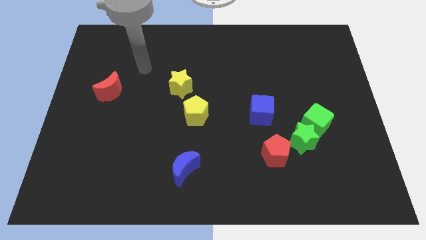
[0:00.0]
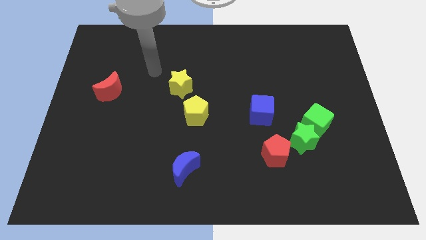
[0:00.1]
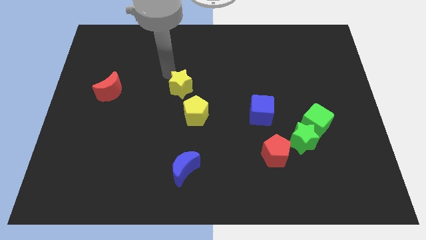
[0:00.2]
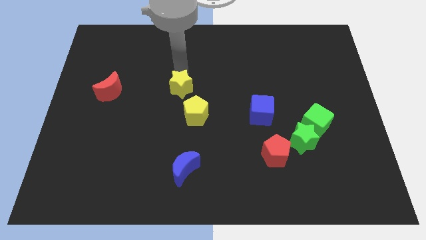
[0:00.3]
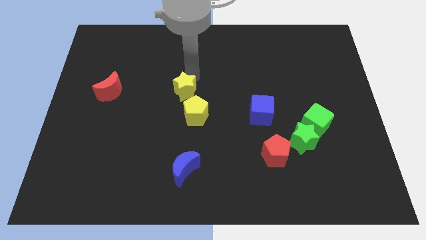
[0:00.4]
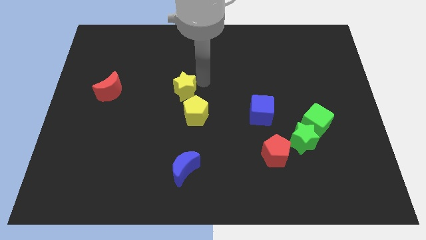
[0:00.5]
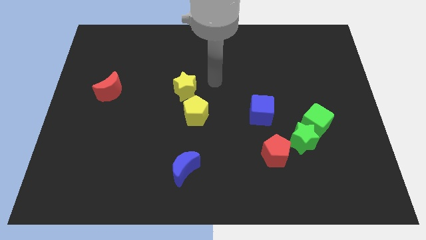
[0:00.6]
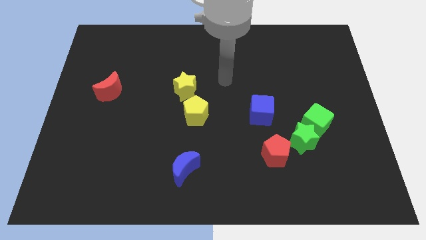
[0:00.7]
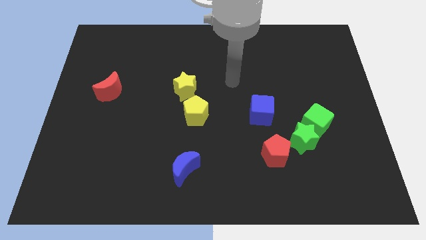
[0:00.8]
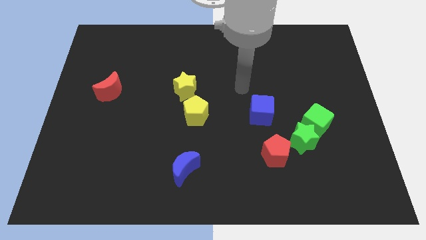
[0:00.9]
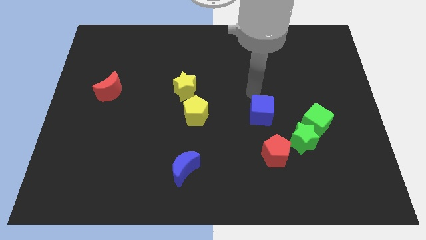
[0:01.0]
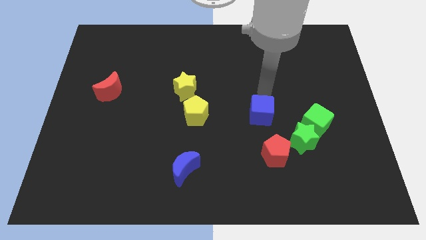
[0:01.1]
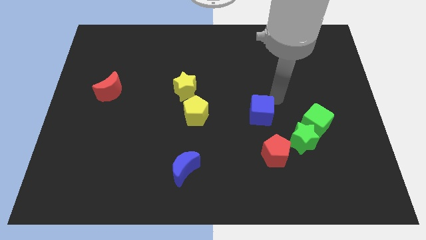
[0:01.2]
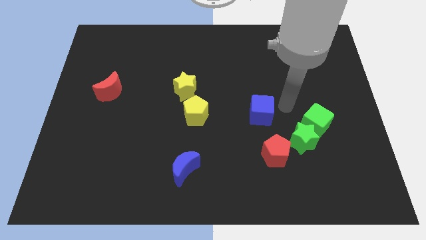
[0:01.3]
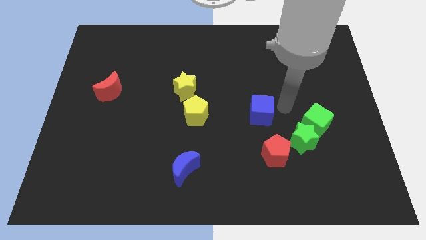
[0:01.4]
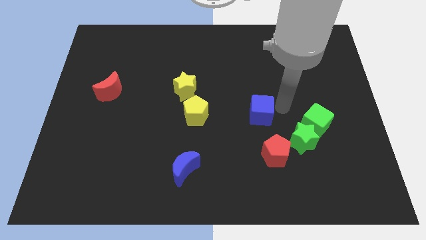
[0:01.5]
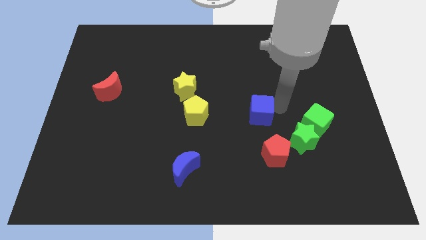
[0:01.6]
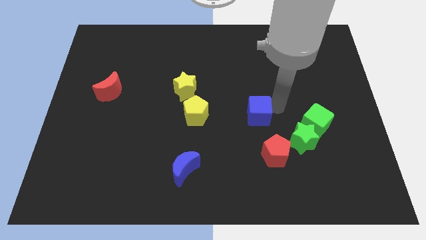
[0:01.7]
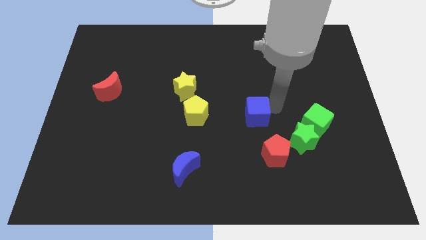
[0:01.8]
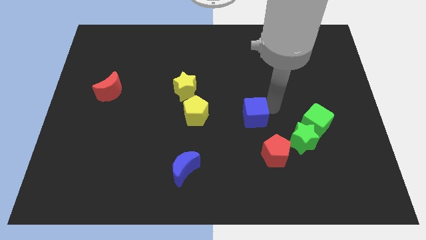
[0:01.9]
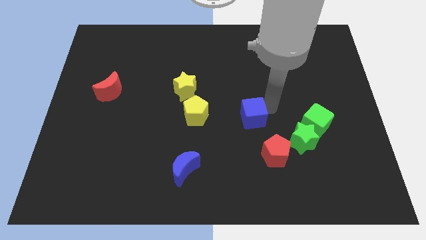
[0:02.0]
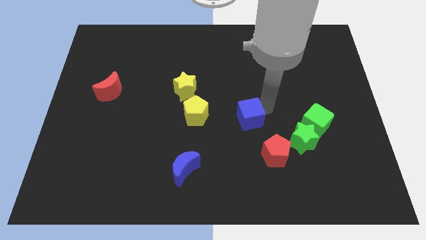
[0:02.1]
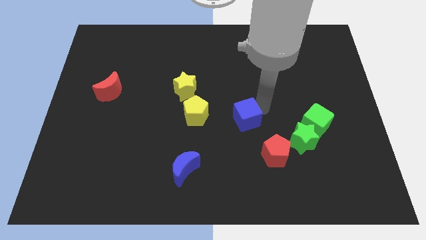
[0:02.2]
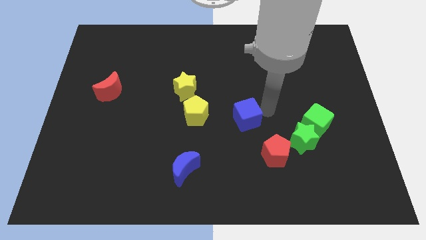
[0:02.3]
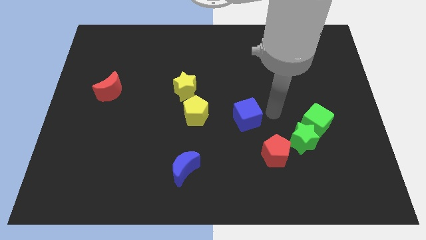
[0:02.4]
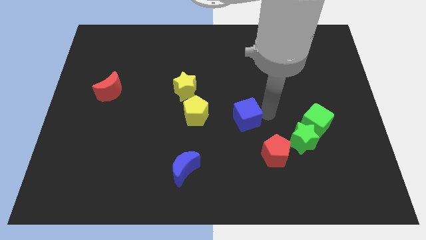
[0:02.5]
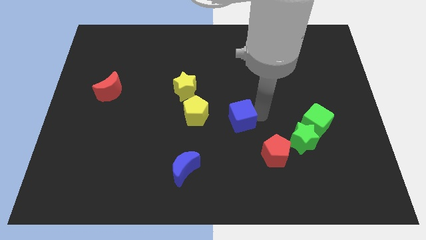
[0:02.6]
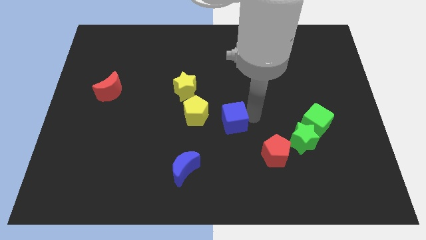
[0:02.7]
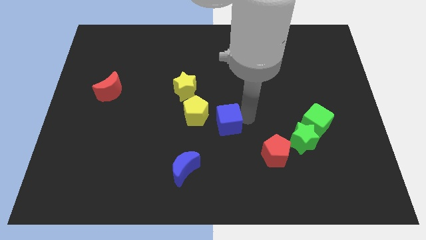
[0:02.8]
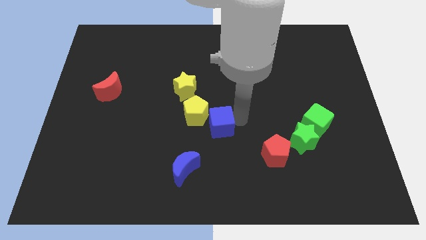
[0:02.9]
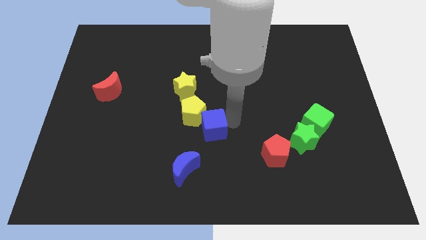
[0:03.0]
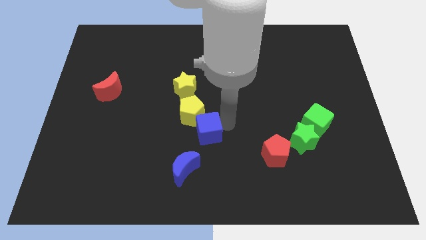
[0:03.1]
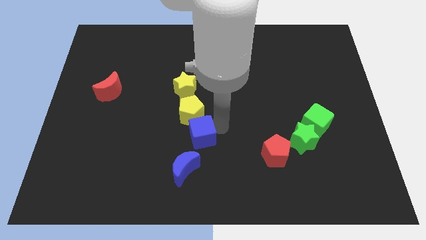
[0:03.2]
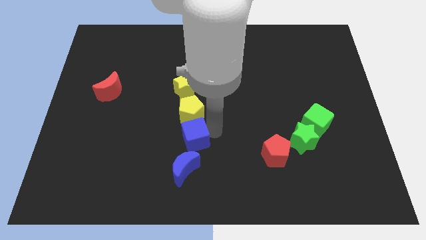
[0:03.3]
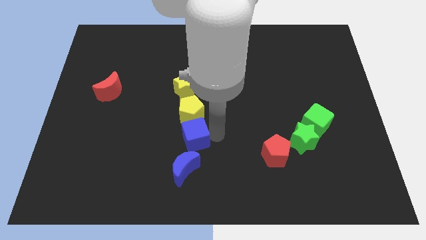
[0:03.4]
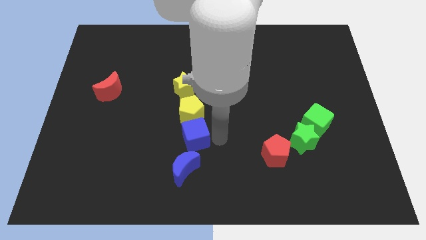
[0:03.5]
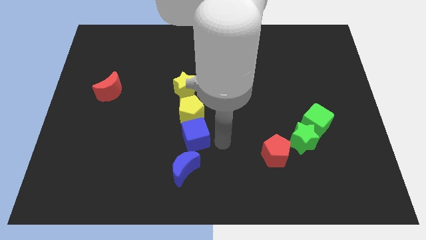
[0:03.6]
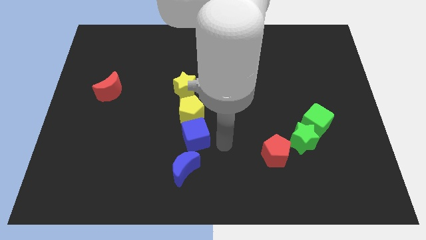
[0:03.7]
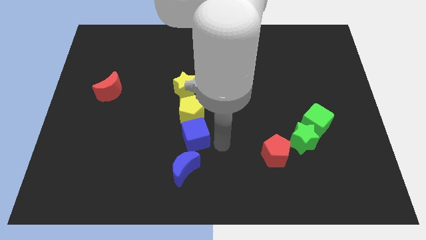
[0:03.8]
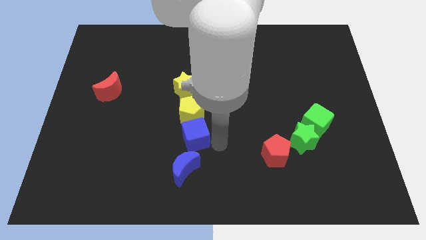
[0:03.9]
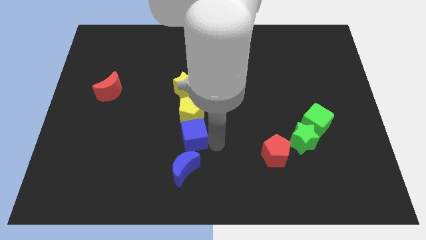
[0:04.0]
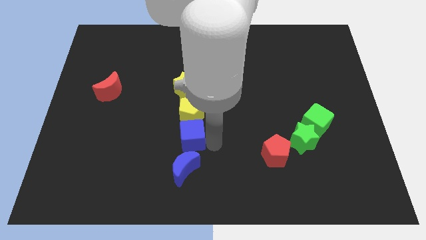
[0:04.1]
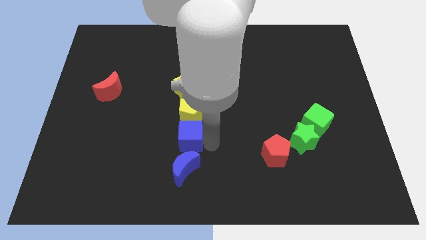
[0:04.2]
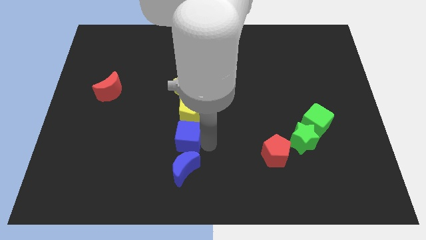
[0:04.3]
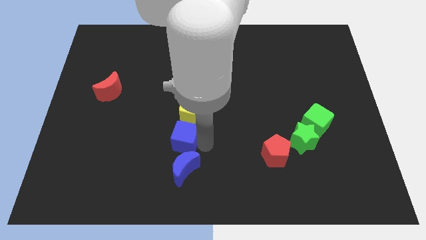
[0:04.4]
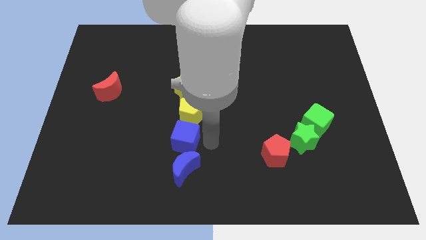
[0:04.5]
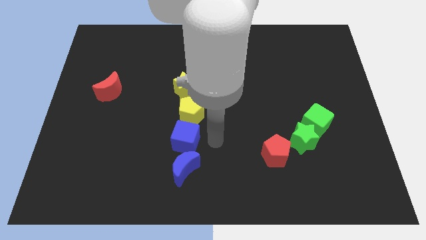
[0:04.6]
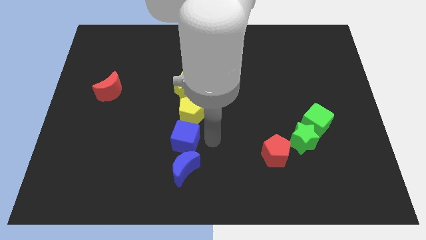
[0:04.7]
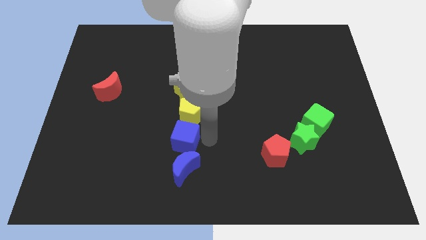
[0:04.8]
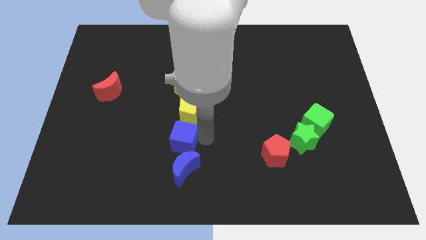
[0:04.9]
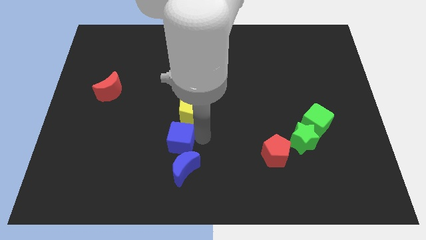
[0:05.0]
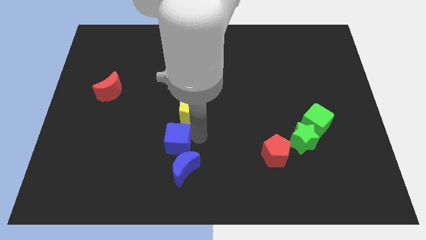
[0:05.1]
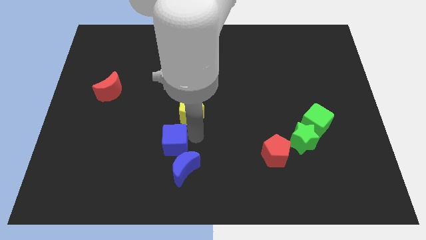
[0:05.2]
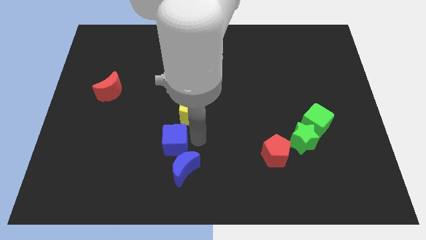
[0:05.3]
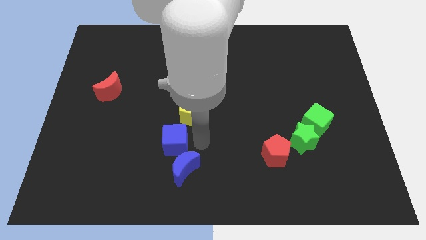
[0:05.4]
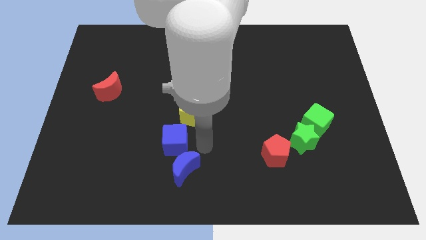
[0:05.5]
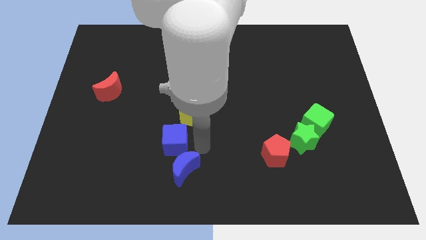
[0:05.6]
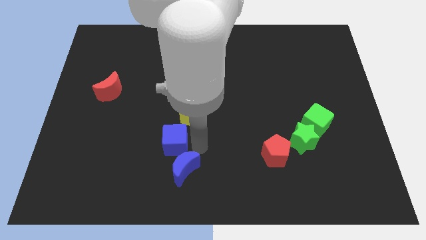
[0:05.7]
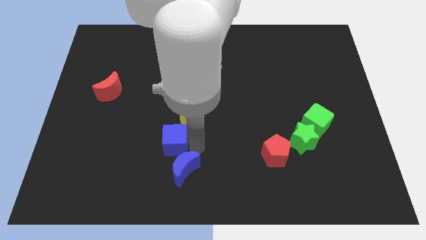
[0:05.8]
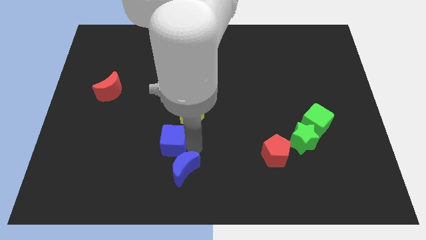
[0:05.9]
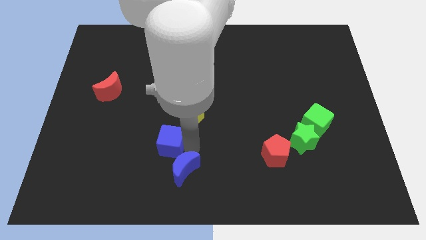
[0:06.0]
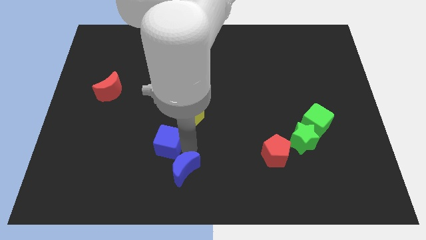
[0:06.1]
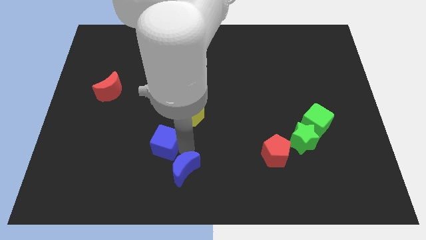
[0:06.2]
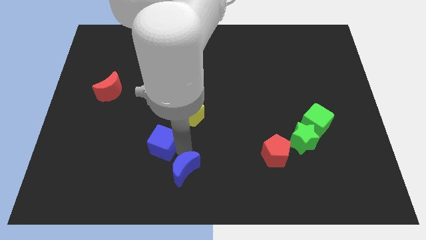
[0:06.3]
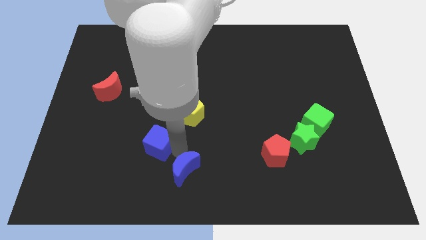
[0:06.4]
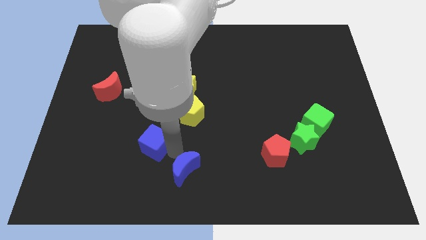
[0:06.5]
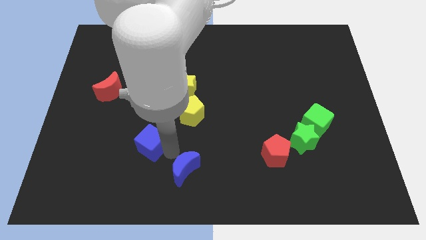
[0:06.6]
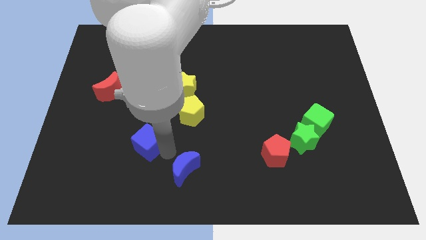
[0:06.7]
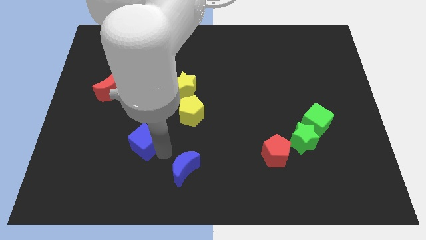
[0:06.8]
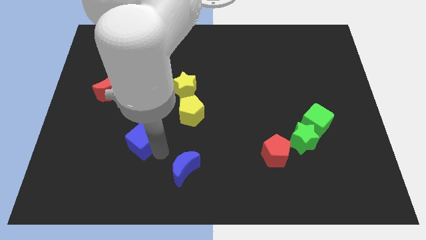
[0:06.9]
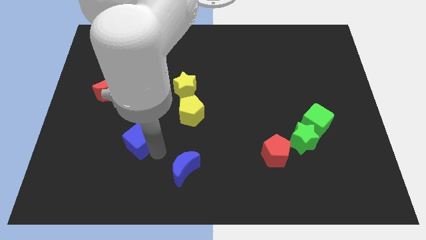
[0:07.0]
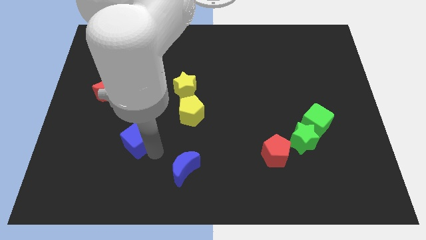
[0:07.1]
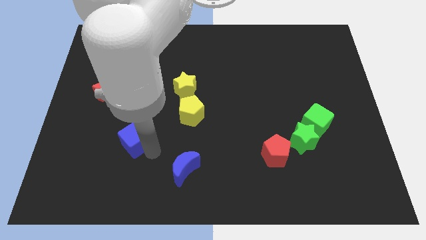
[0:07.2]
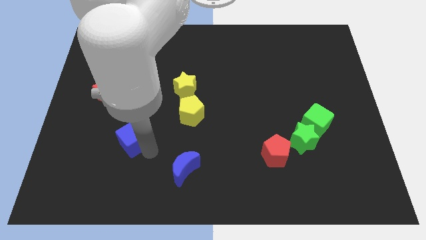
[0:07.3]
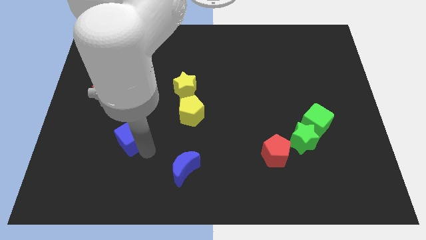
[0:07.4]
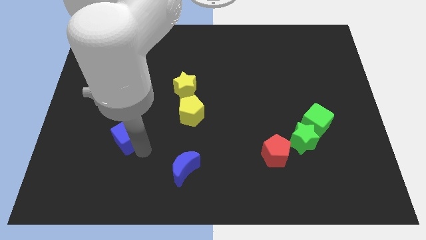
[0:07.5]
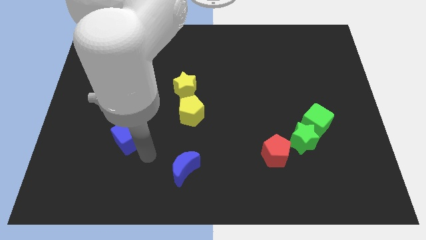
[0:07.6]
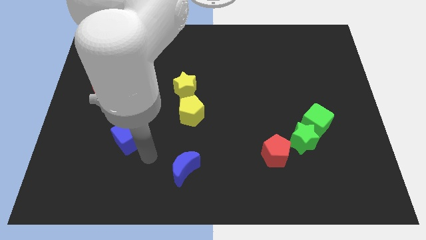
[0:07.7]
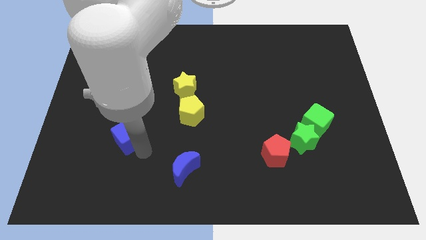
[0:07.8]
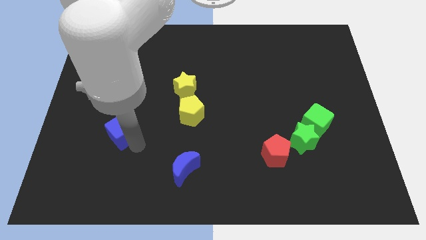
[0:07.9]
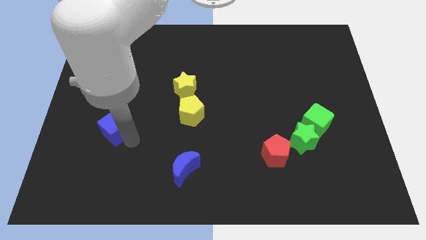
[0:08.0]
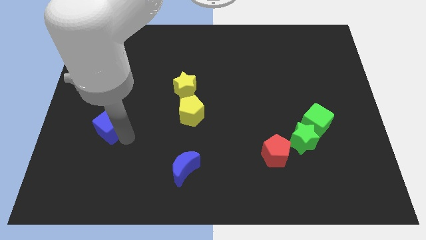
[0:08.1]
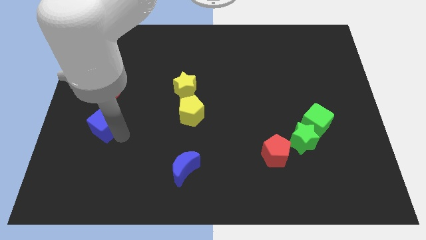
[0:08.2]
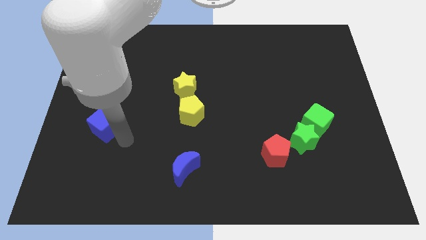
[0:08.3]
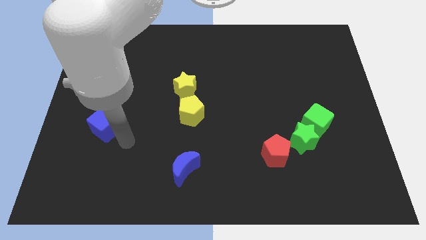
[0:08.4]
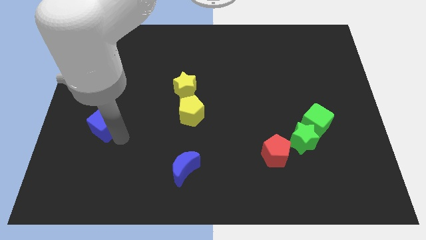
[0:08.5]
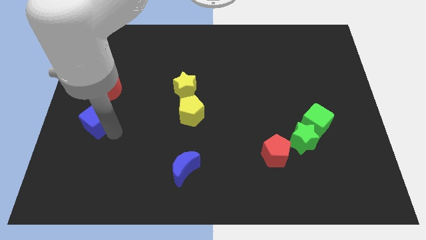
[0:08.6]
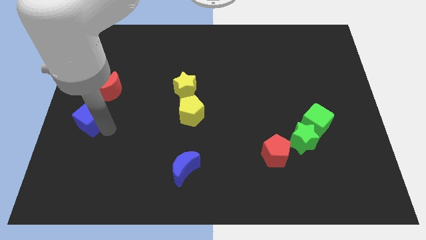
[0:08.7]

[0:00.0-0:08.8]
move the blue cube to the center left
